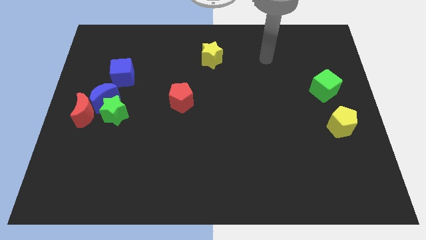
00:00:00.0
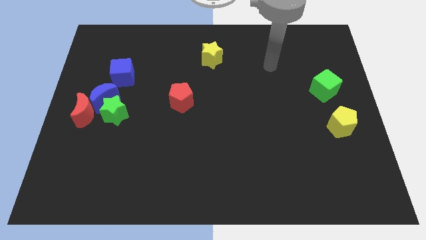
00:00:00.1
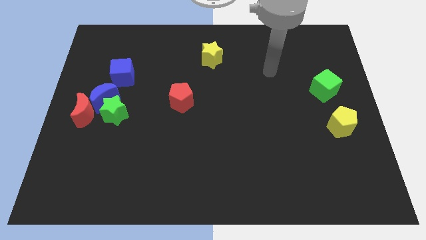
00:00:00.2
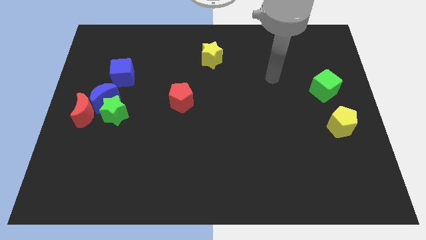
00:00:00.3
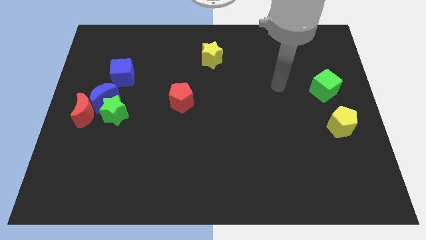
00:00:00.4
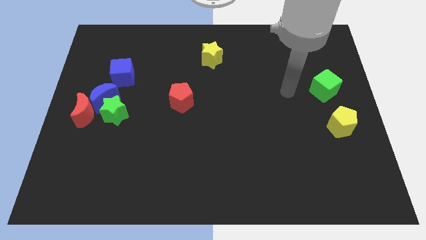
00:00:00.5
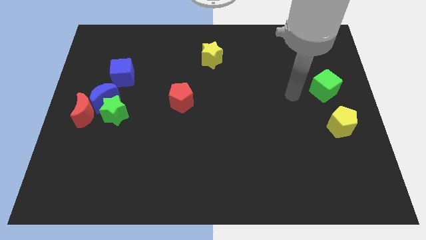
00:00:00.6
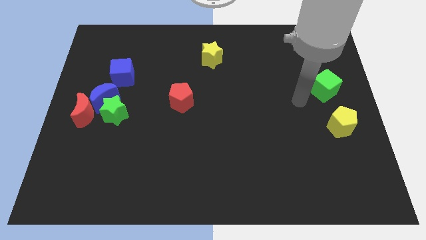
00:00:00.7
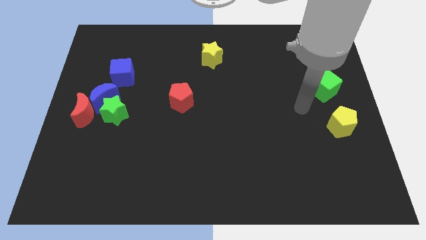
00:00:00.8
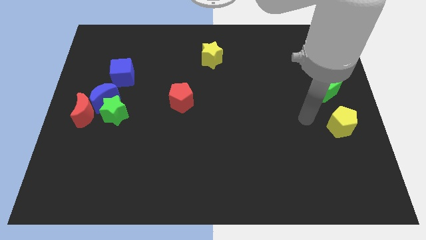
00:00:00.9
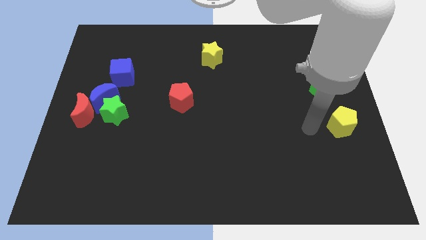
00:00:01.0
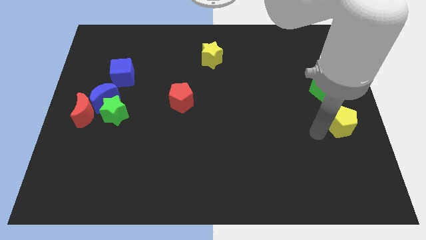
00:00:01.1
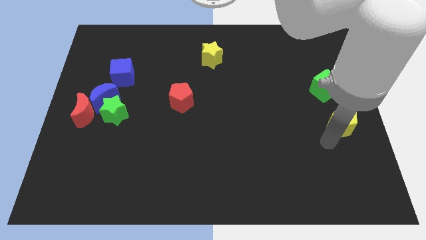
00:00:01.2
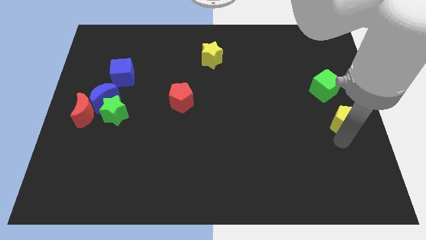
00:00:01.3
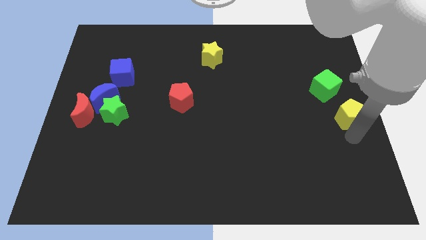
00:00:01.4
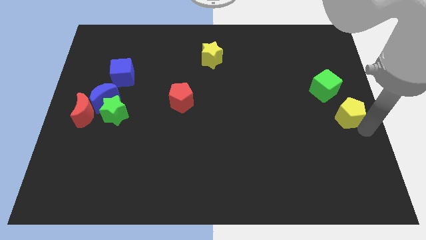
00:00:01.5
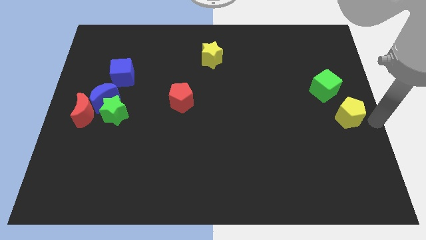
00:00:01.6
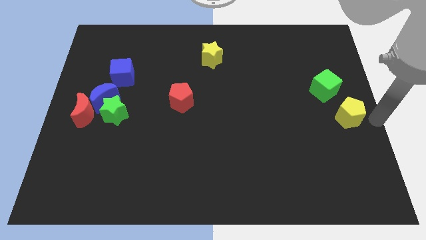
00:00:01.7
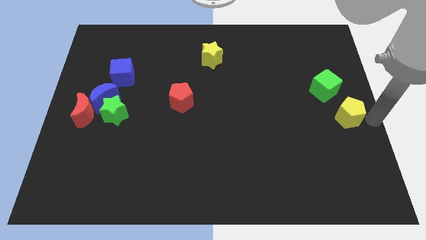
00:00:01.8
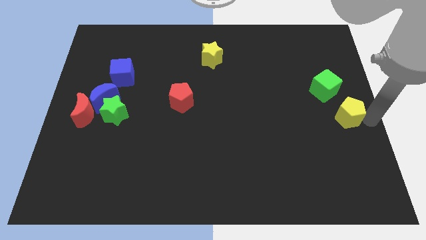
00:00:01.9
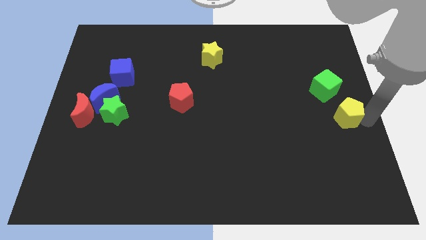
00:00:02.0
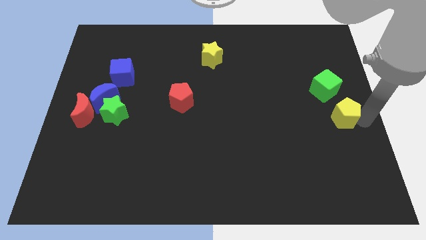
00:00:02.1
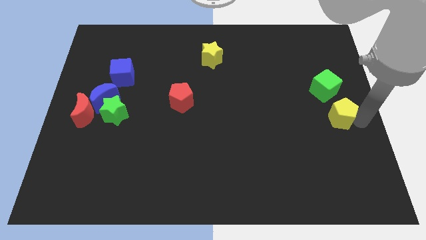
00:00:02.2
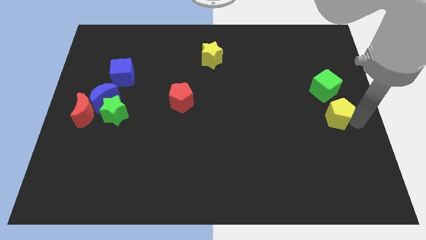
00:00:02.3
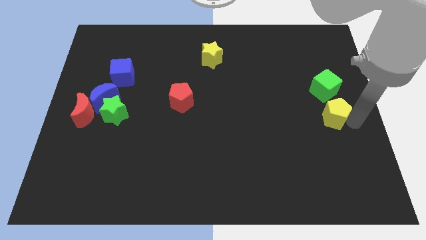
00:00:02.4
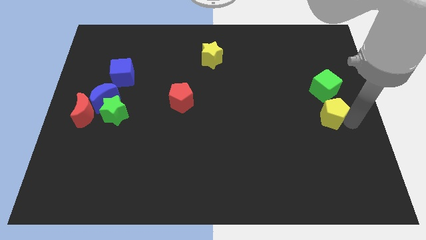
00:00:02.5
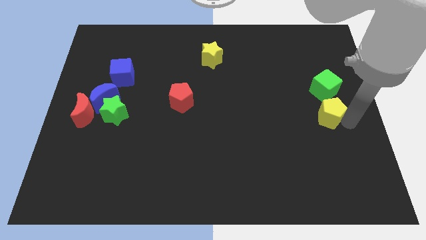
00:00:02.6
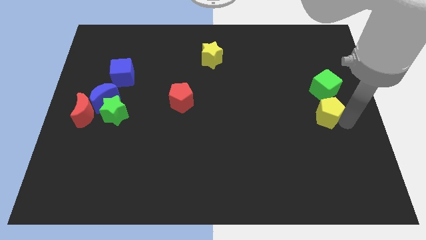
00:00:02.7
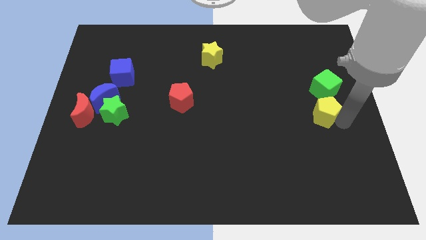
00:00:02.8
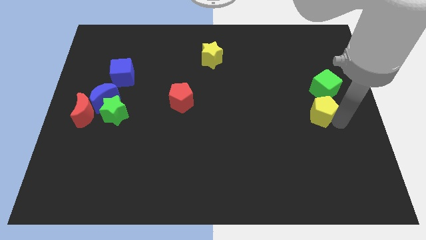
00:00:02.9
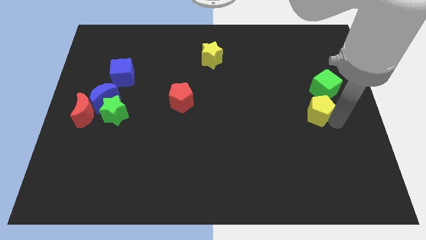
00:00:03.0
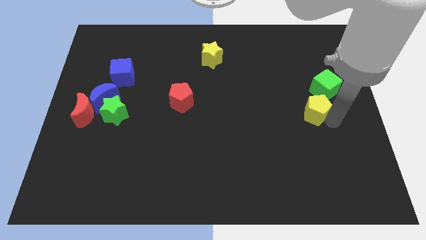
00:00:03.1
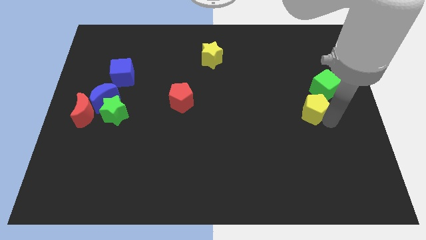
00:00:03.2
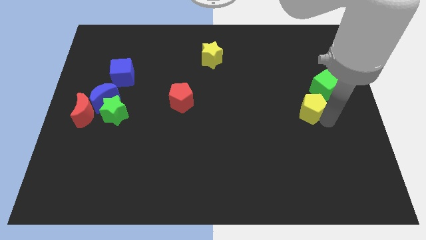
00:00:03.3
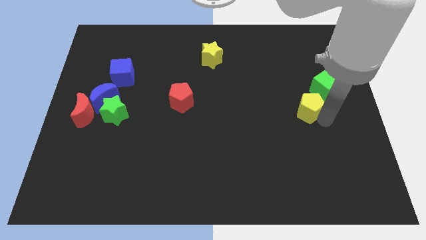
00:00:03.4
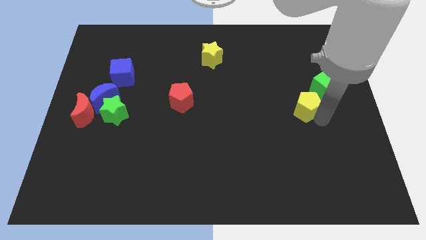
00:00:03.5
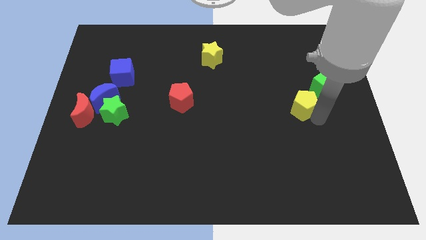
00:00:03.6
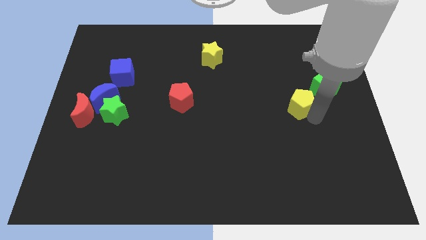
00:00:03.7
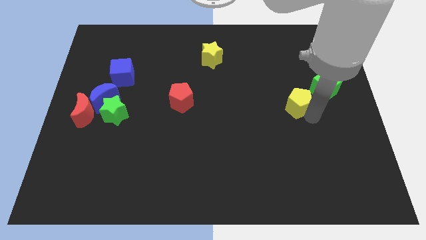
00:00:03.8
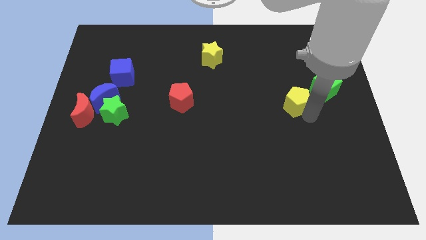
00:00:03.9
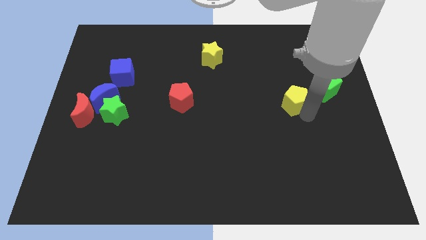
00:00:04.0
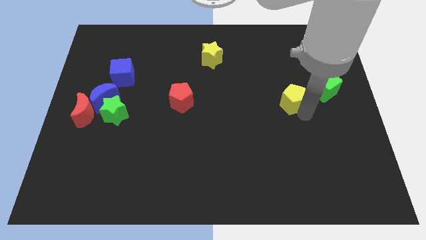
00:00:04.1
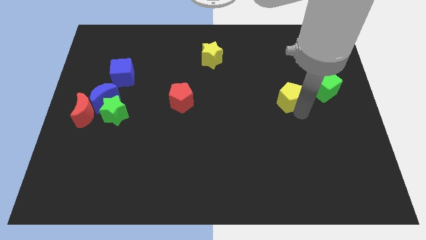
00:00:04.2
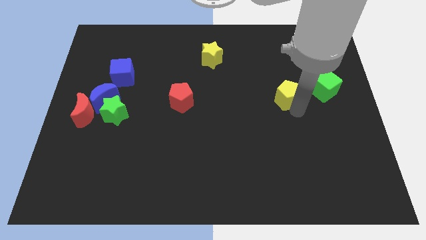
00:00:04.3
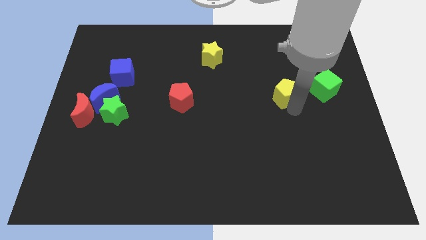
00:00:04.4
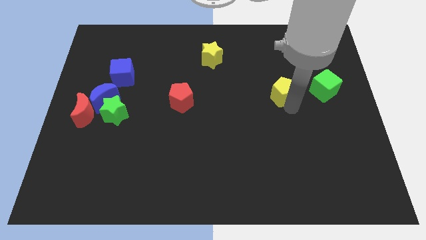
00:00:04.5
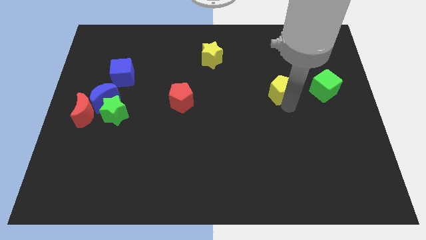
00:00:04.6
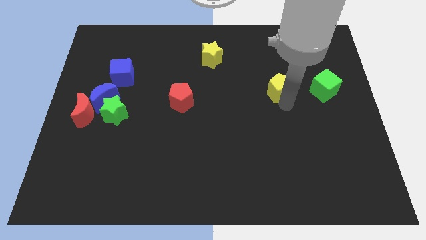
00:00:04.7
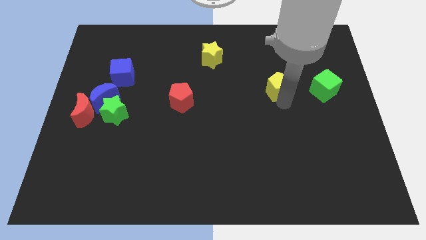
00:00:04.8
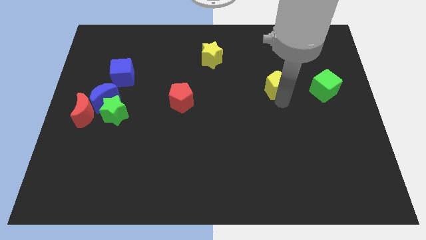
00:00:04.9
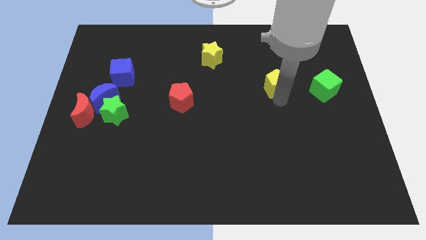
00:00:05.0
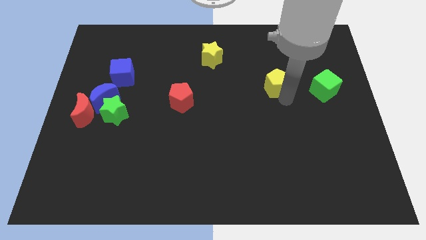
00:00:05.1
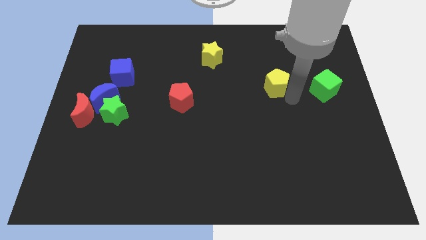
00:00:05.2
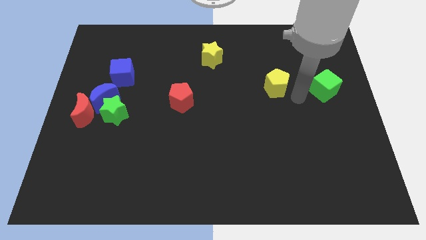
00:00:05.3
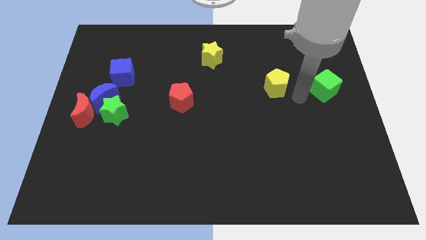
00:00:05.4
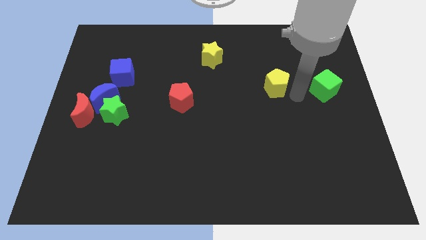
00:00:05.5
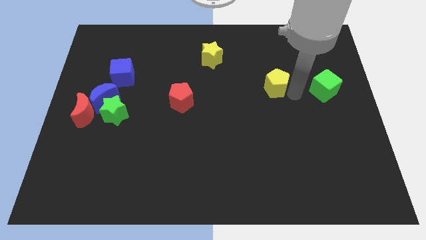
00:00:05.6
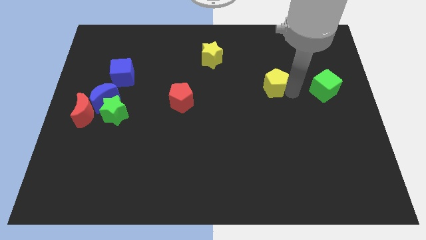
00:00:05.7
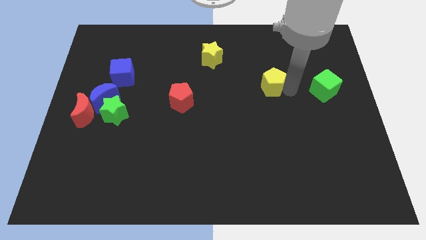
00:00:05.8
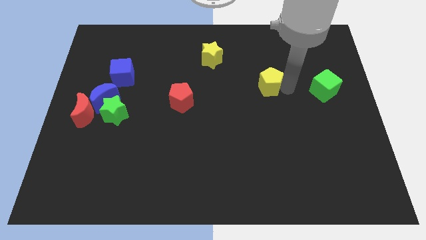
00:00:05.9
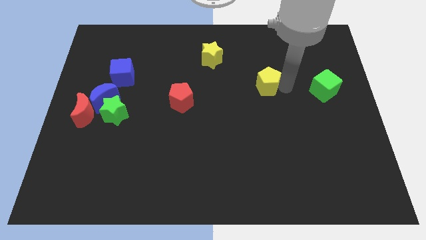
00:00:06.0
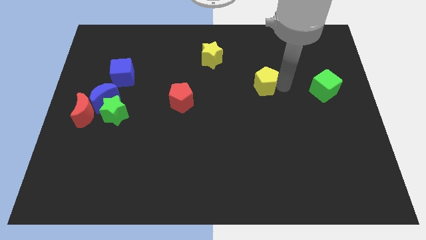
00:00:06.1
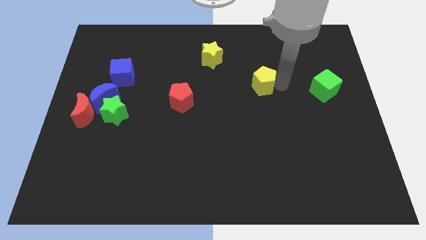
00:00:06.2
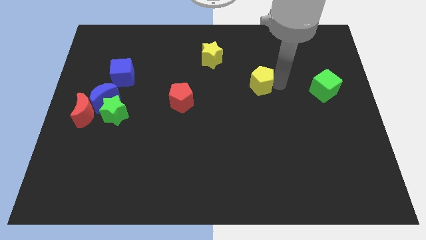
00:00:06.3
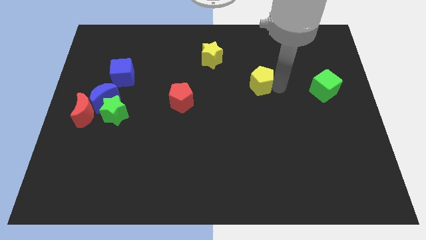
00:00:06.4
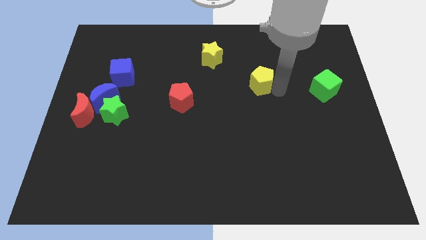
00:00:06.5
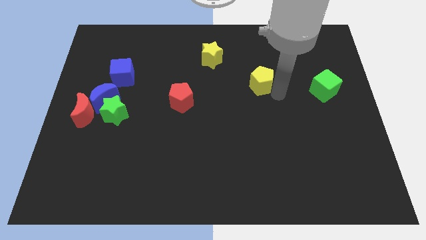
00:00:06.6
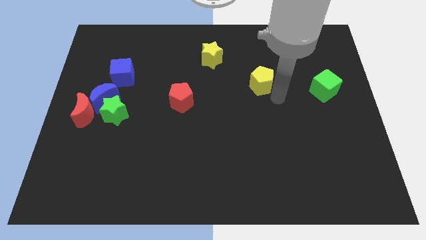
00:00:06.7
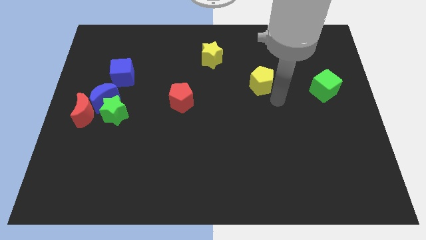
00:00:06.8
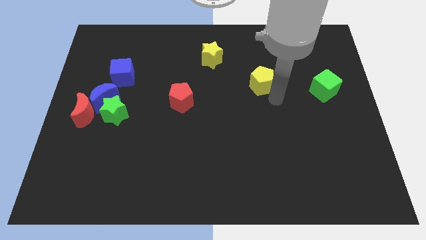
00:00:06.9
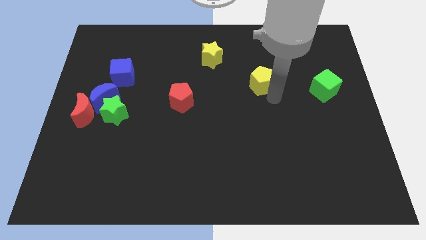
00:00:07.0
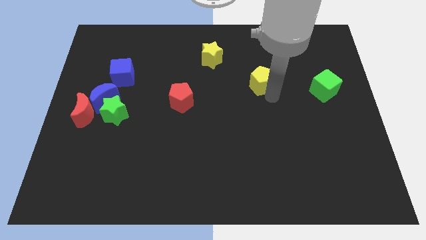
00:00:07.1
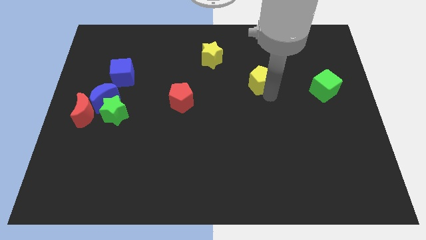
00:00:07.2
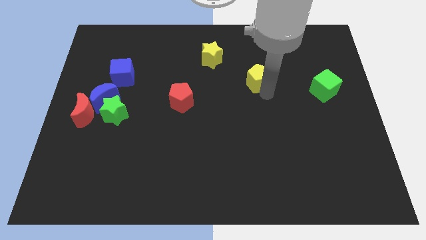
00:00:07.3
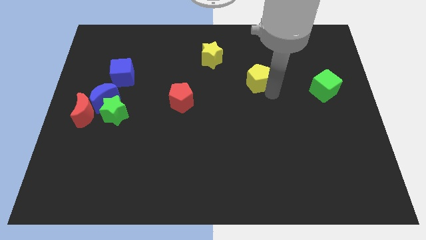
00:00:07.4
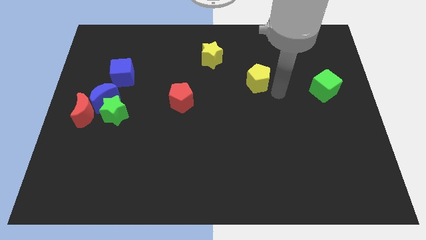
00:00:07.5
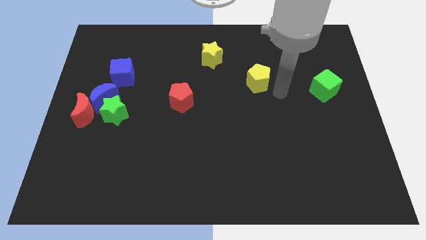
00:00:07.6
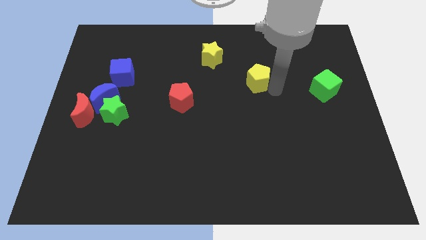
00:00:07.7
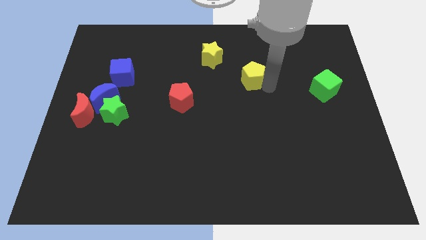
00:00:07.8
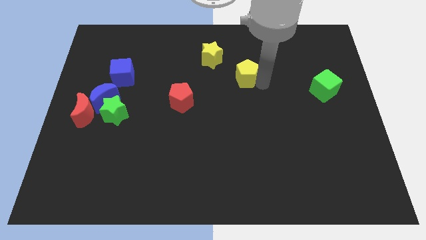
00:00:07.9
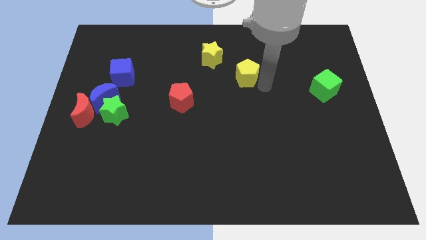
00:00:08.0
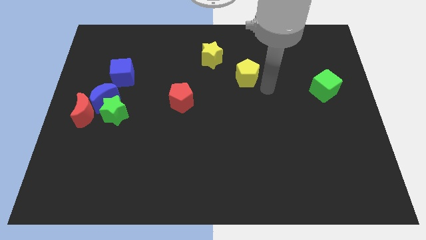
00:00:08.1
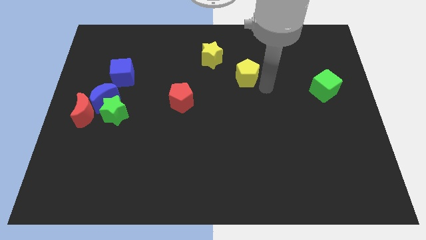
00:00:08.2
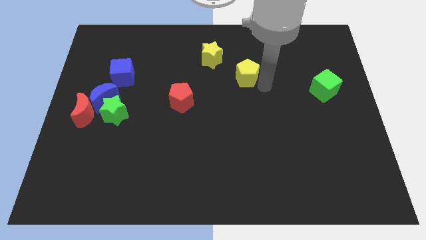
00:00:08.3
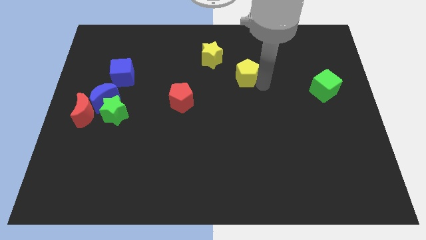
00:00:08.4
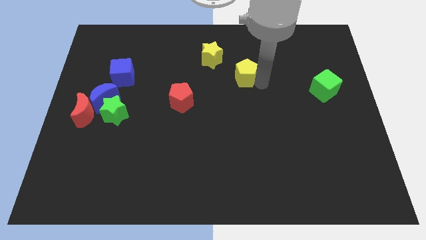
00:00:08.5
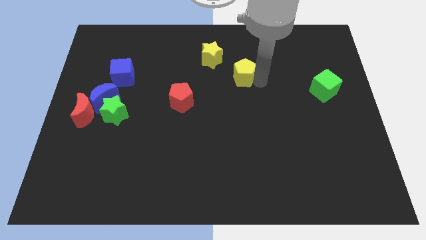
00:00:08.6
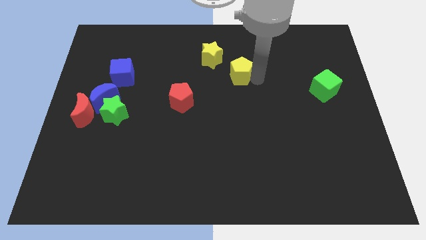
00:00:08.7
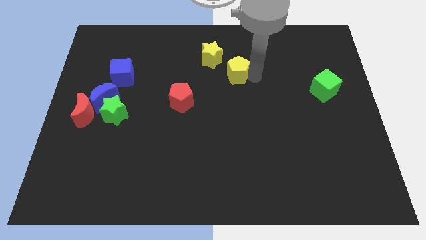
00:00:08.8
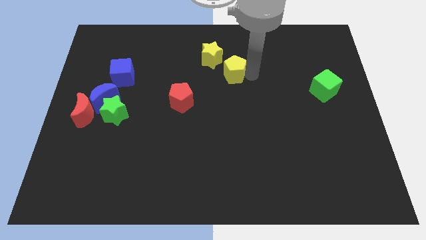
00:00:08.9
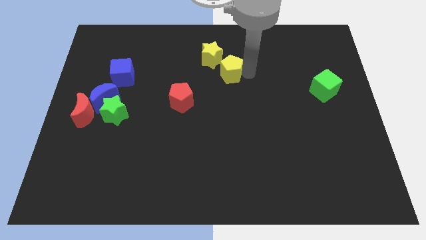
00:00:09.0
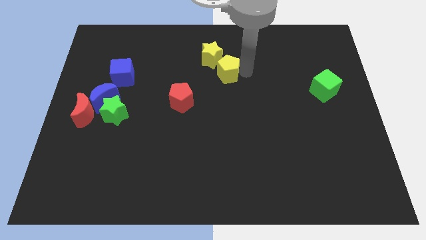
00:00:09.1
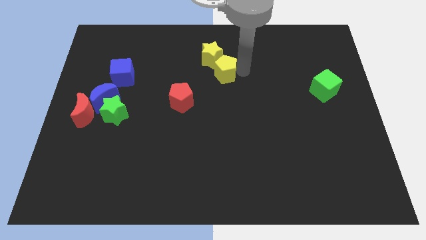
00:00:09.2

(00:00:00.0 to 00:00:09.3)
push the yellow pentagon next to the yellow star
